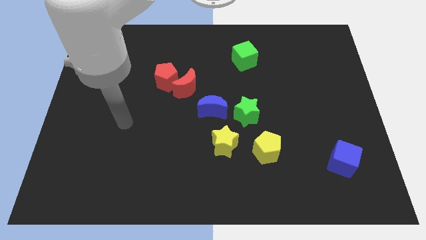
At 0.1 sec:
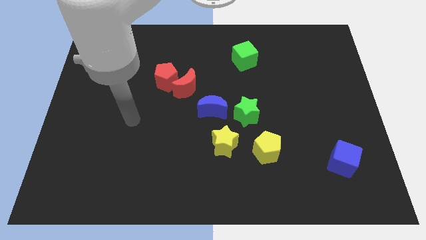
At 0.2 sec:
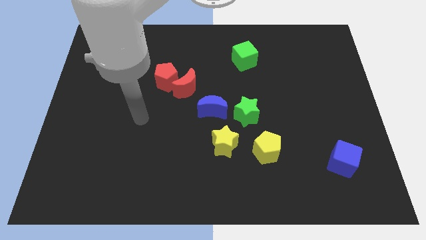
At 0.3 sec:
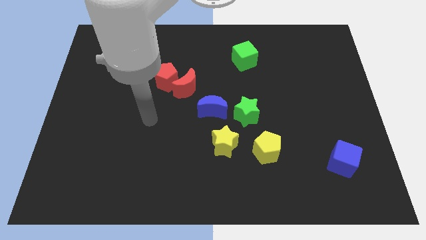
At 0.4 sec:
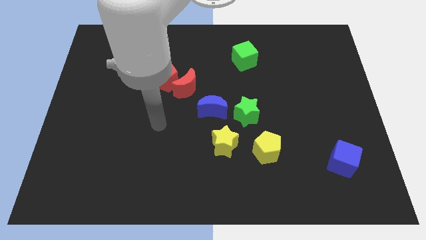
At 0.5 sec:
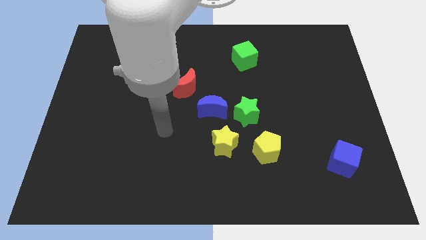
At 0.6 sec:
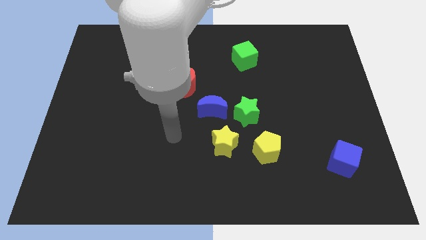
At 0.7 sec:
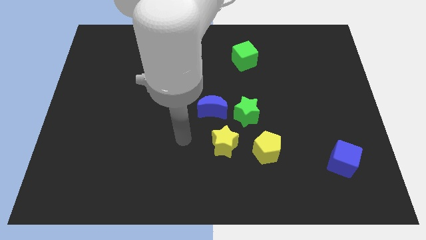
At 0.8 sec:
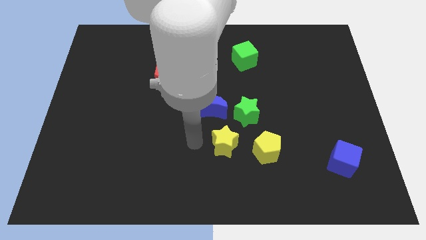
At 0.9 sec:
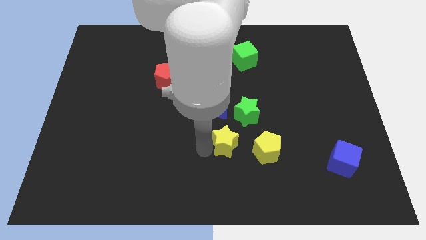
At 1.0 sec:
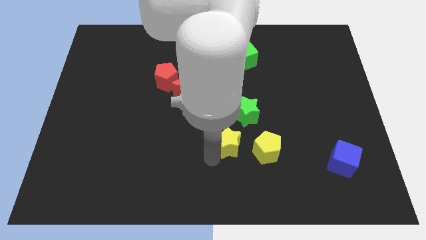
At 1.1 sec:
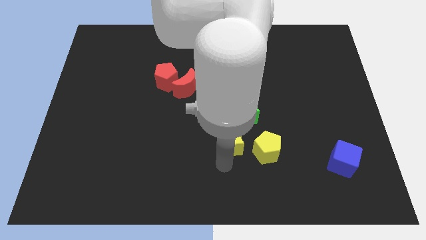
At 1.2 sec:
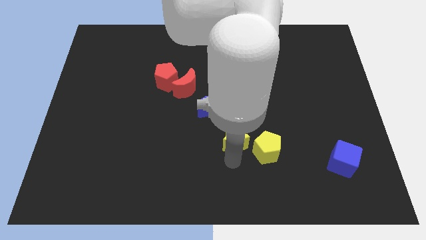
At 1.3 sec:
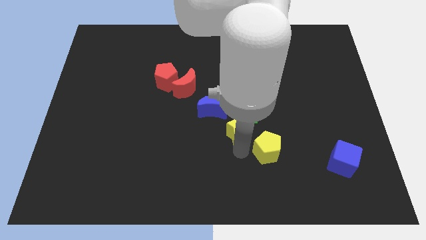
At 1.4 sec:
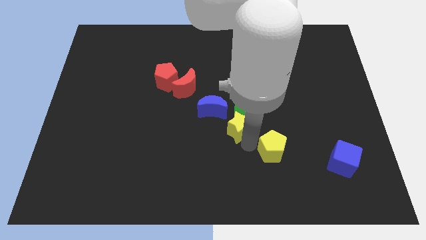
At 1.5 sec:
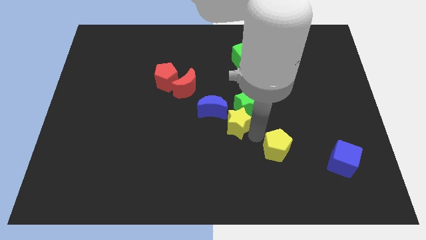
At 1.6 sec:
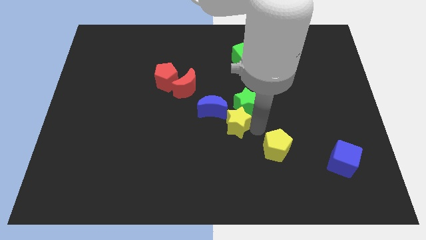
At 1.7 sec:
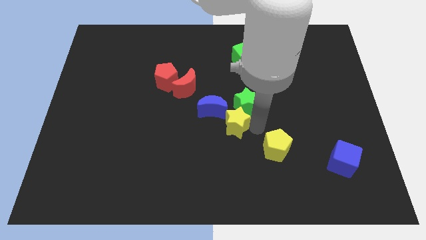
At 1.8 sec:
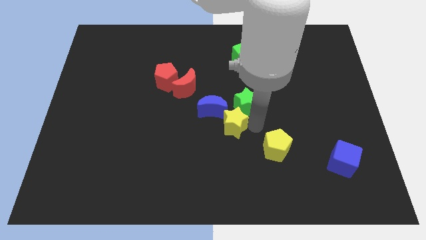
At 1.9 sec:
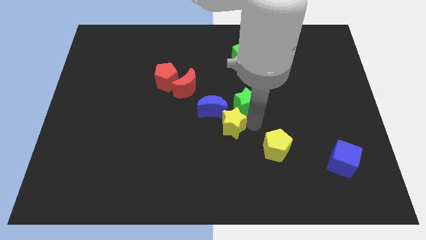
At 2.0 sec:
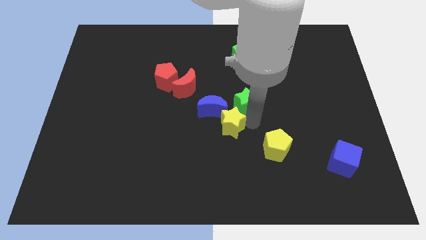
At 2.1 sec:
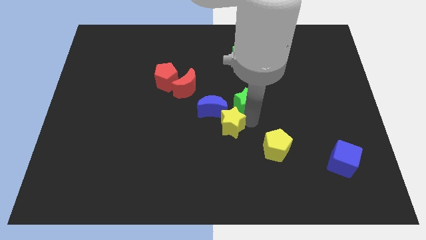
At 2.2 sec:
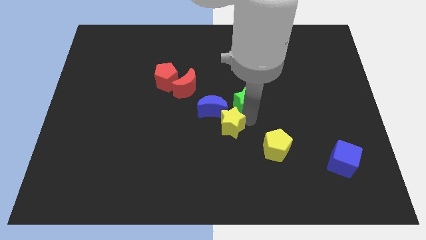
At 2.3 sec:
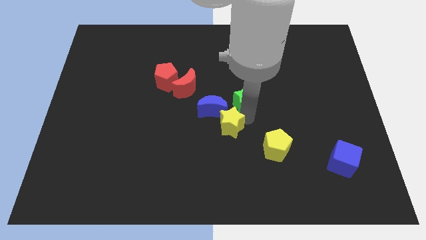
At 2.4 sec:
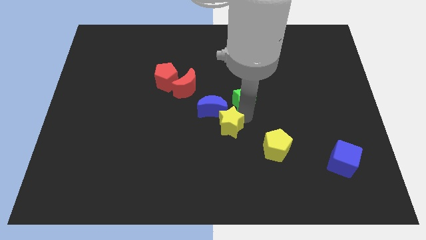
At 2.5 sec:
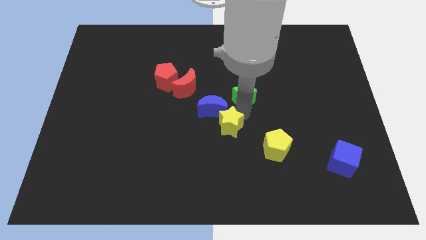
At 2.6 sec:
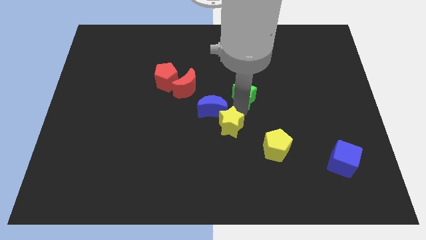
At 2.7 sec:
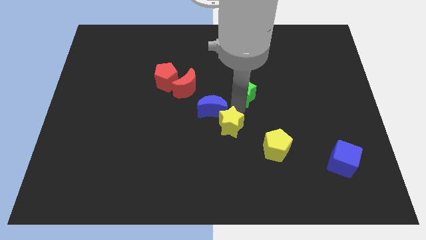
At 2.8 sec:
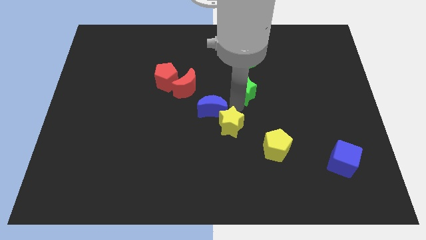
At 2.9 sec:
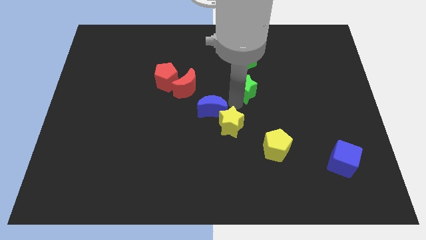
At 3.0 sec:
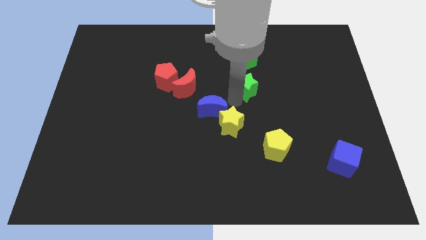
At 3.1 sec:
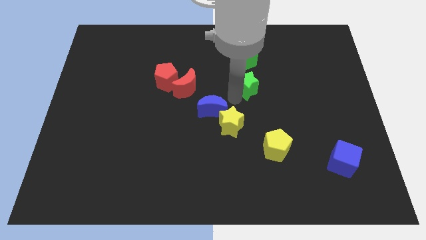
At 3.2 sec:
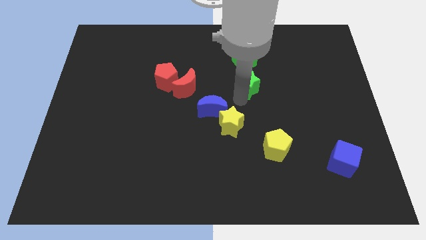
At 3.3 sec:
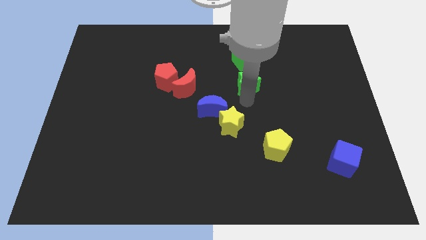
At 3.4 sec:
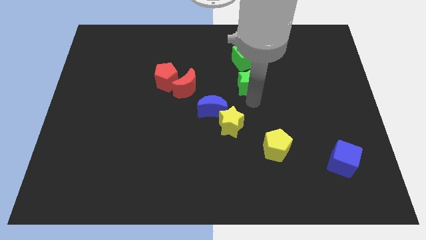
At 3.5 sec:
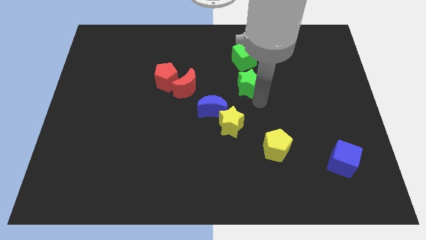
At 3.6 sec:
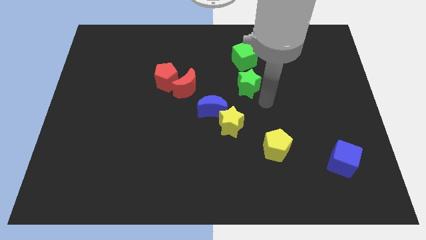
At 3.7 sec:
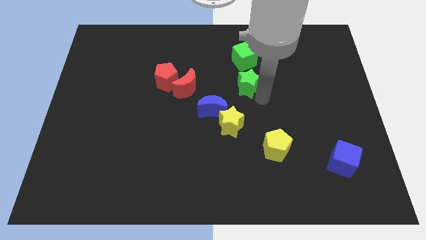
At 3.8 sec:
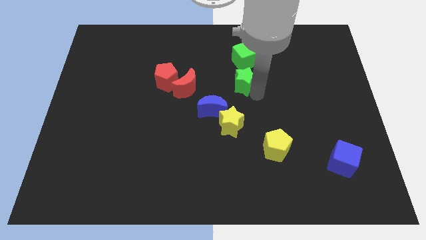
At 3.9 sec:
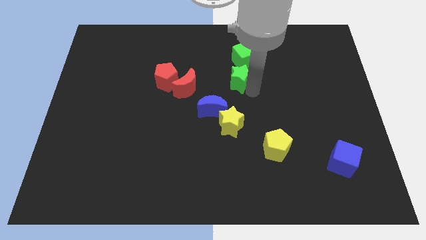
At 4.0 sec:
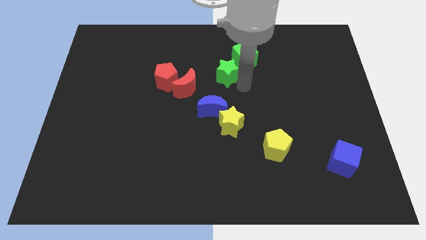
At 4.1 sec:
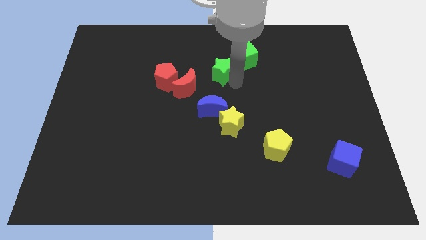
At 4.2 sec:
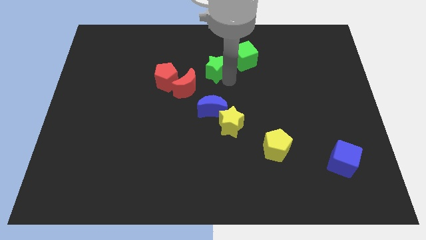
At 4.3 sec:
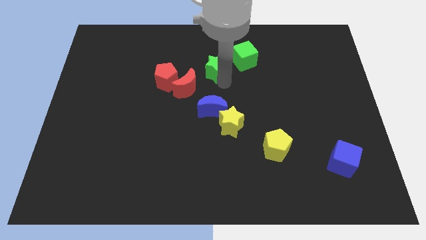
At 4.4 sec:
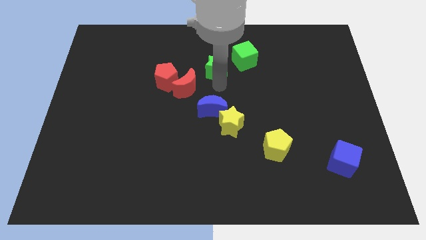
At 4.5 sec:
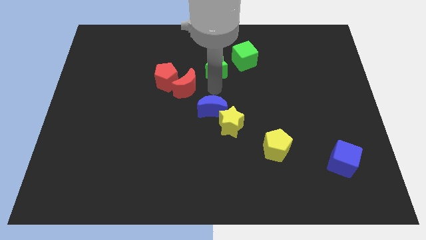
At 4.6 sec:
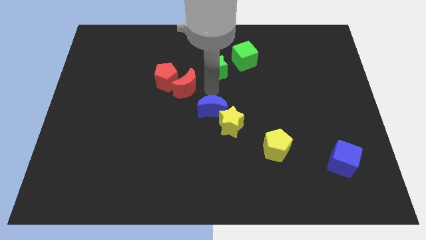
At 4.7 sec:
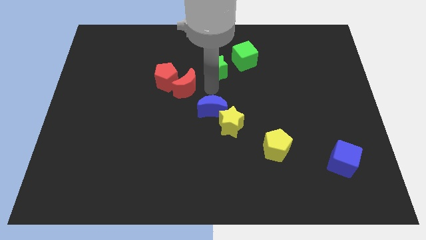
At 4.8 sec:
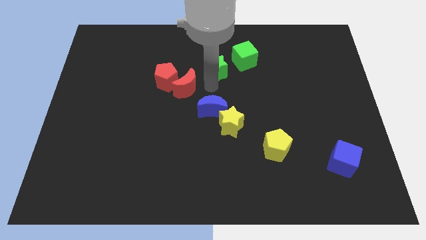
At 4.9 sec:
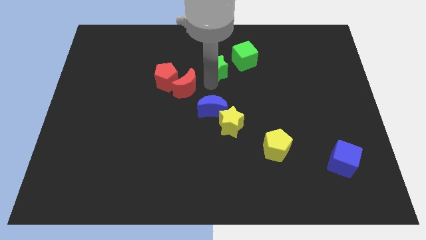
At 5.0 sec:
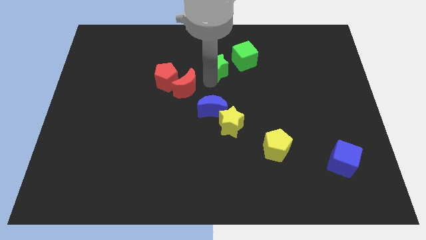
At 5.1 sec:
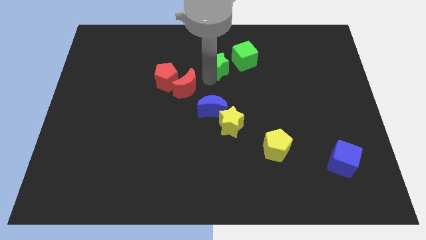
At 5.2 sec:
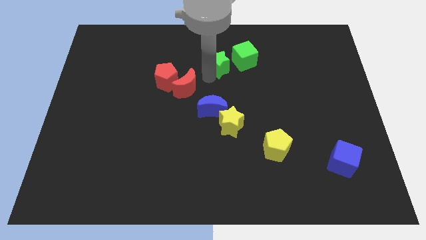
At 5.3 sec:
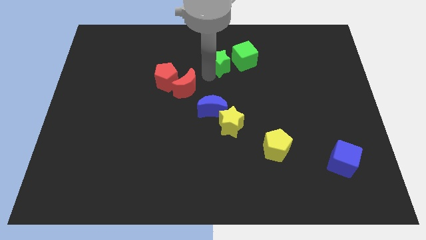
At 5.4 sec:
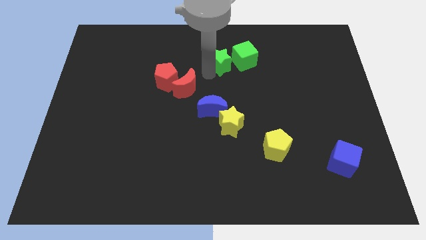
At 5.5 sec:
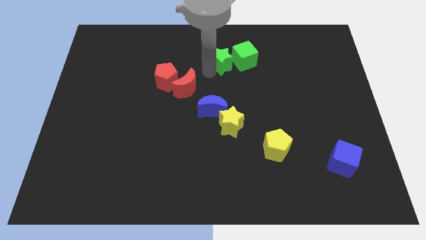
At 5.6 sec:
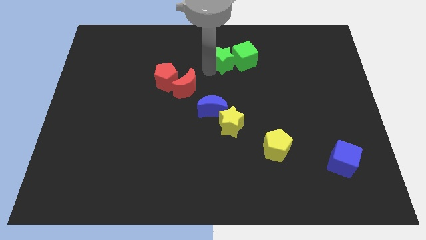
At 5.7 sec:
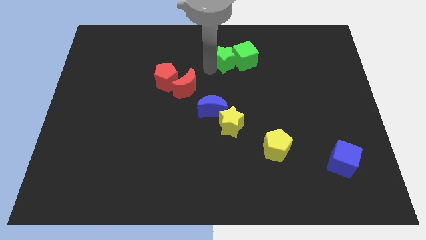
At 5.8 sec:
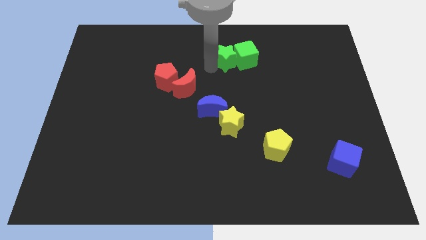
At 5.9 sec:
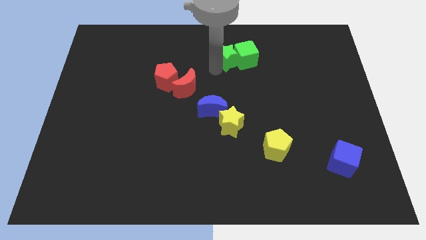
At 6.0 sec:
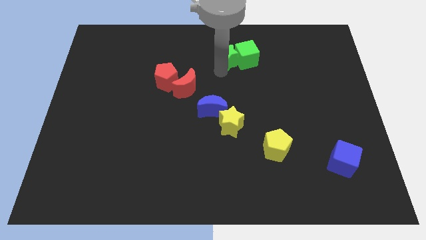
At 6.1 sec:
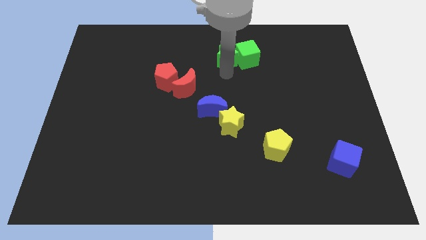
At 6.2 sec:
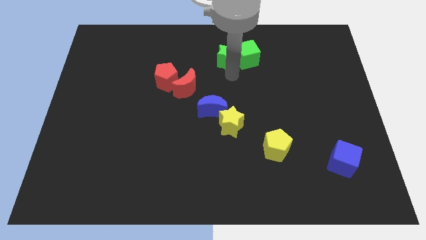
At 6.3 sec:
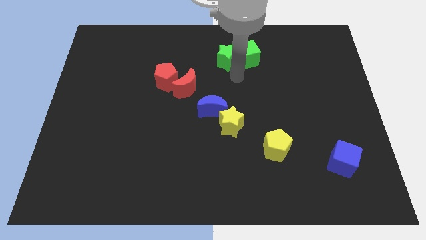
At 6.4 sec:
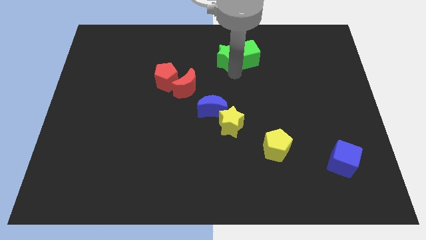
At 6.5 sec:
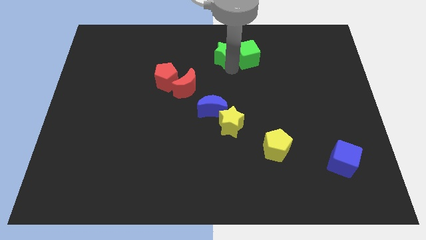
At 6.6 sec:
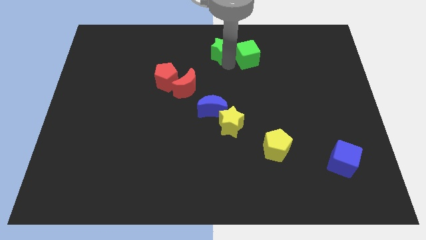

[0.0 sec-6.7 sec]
push the green star to the top side
